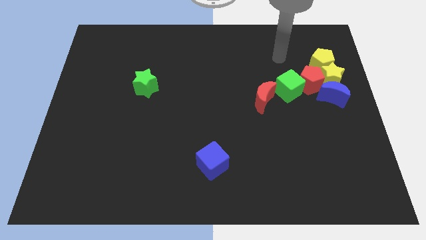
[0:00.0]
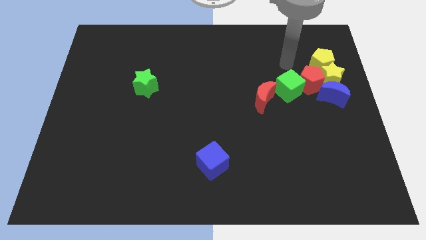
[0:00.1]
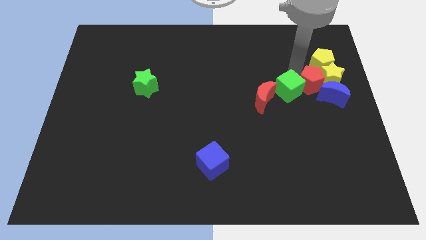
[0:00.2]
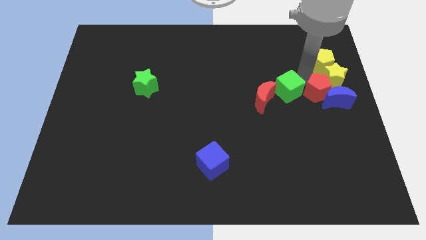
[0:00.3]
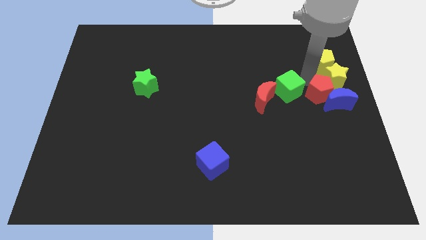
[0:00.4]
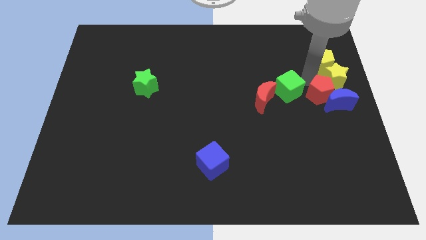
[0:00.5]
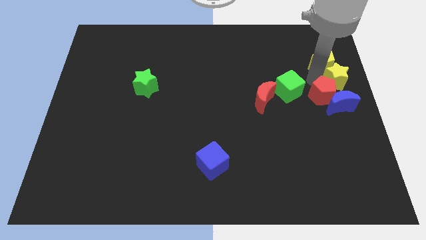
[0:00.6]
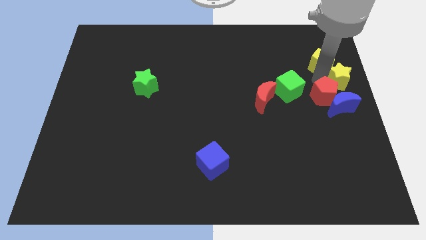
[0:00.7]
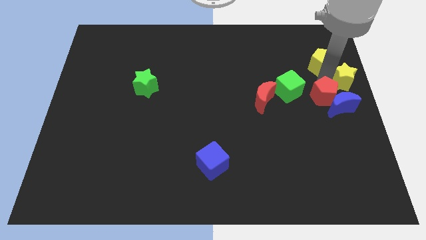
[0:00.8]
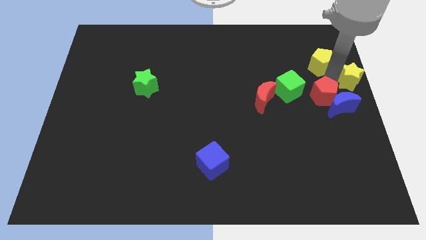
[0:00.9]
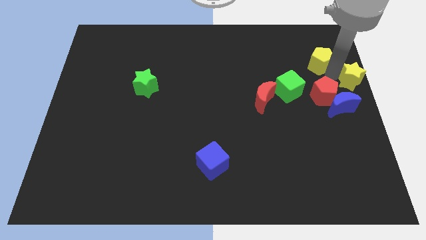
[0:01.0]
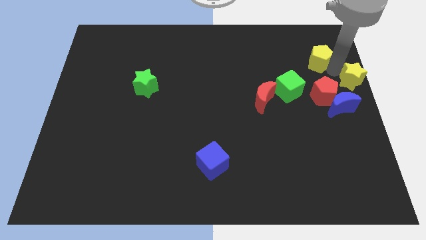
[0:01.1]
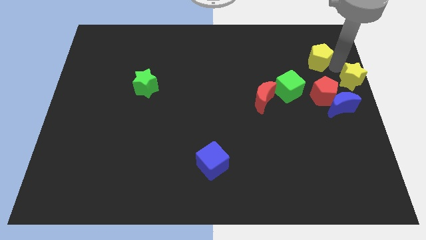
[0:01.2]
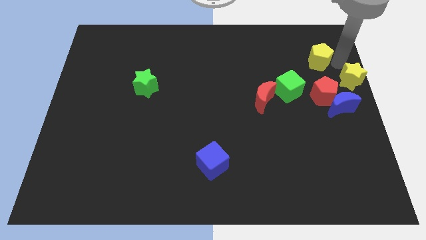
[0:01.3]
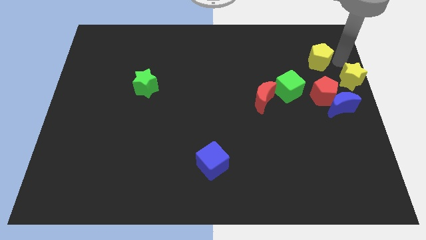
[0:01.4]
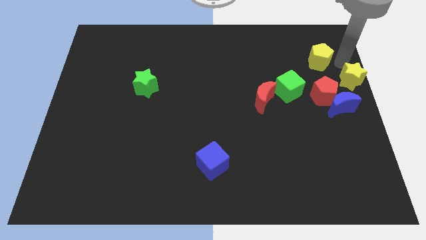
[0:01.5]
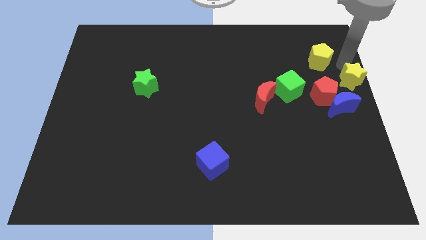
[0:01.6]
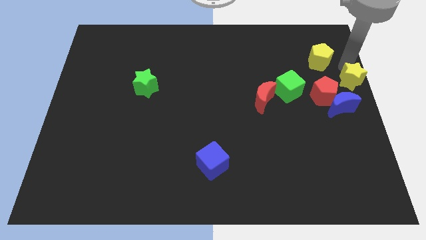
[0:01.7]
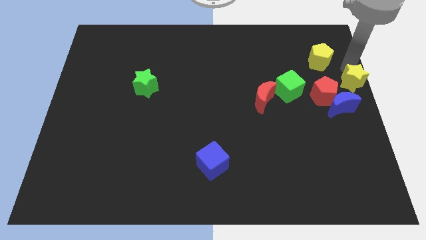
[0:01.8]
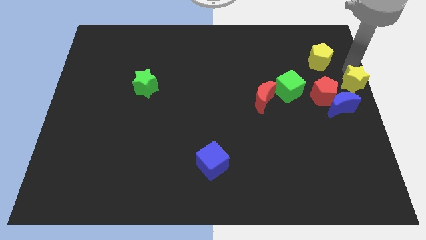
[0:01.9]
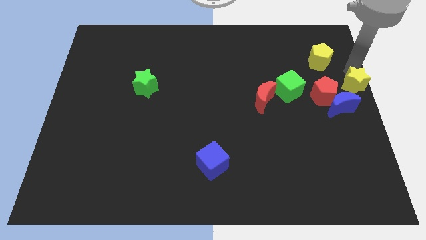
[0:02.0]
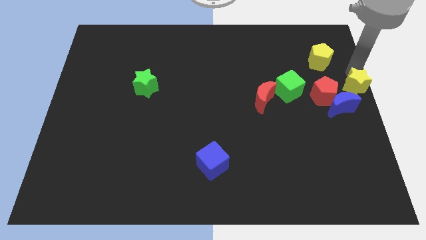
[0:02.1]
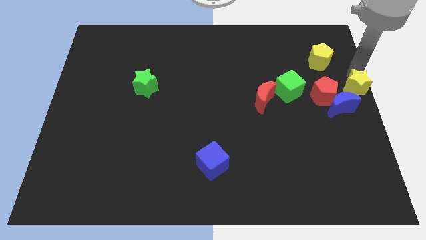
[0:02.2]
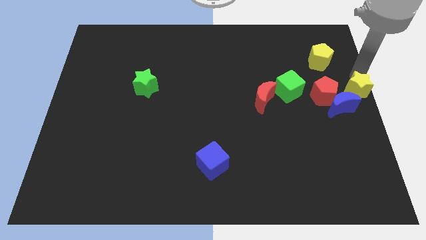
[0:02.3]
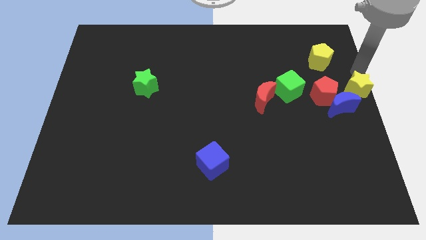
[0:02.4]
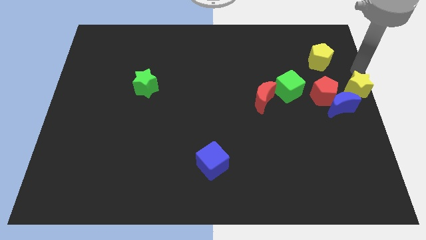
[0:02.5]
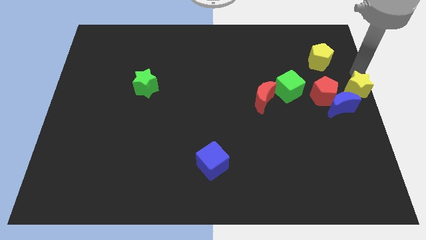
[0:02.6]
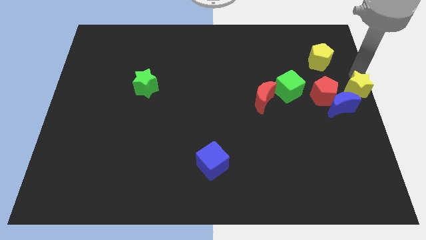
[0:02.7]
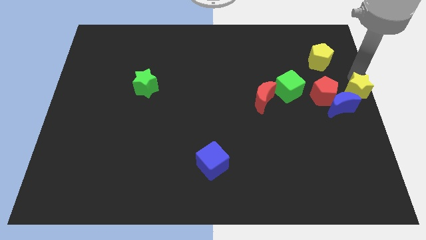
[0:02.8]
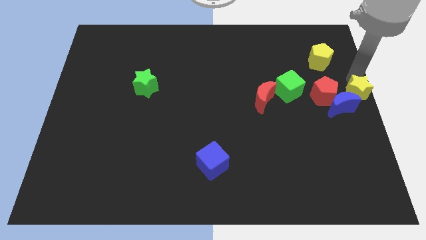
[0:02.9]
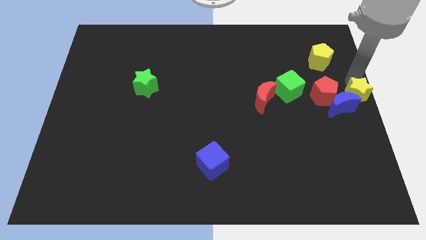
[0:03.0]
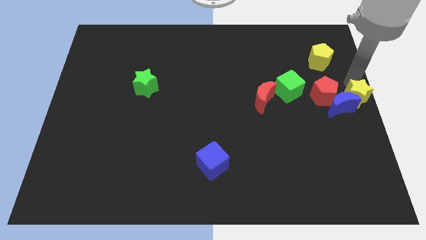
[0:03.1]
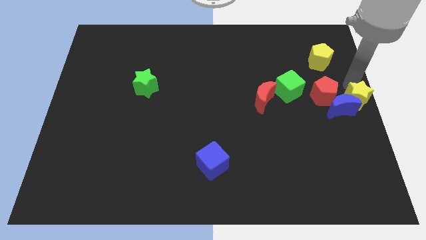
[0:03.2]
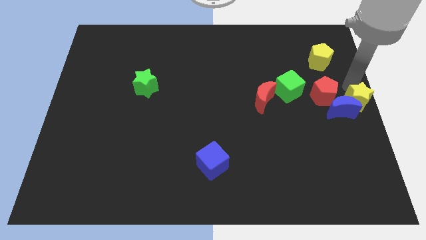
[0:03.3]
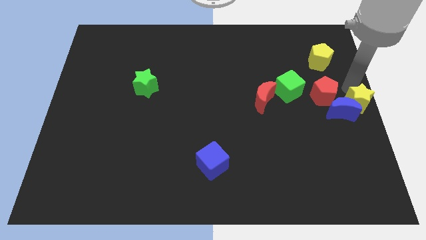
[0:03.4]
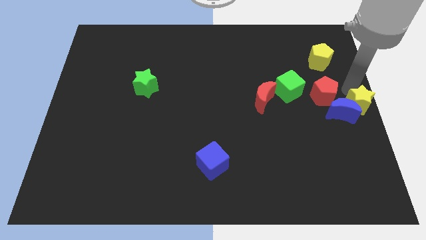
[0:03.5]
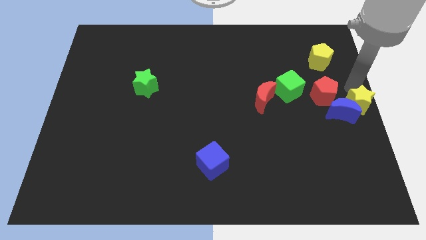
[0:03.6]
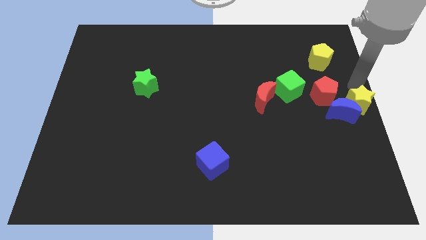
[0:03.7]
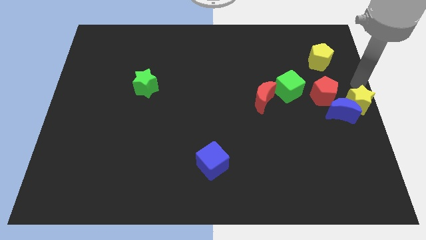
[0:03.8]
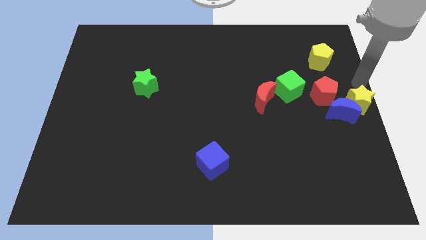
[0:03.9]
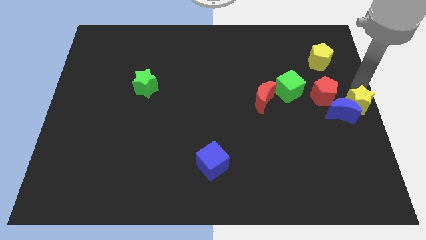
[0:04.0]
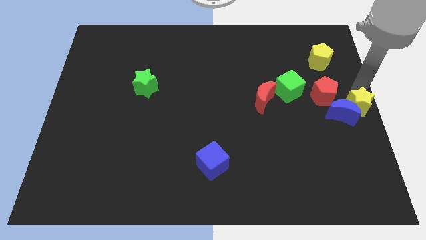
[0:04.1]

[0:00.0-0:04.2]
slide the yellow star down a little bit

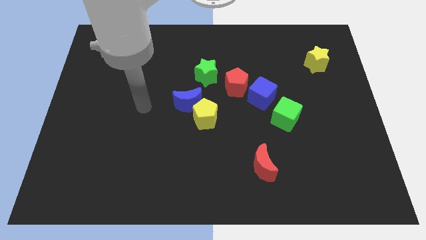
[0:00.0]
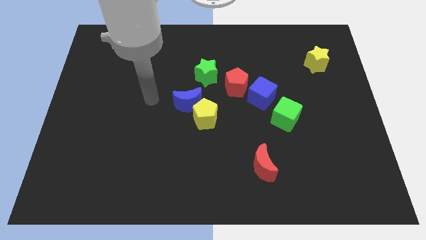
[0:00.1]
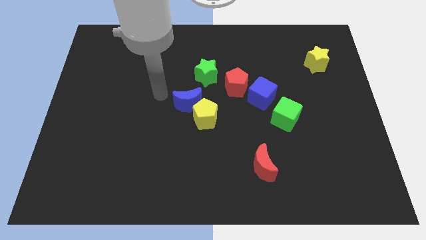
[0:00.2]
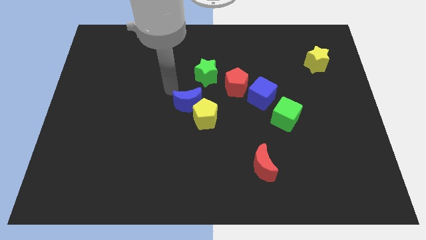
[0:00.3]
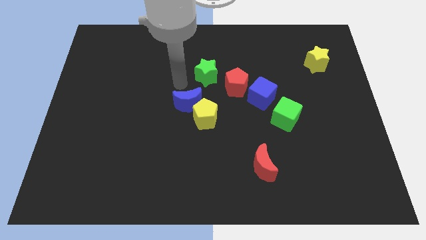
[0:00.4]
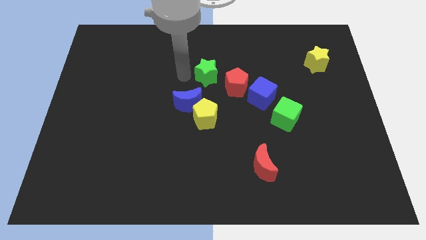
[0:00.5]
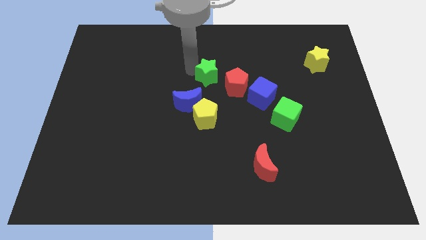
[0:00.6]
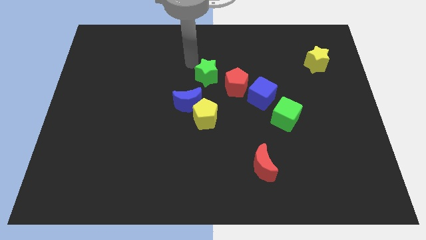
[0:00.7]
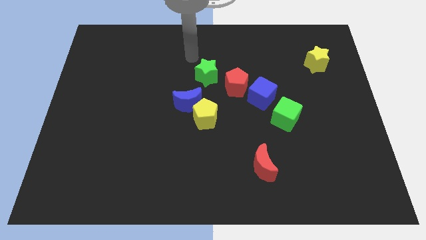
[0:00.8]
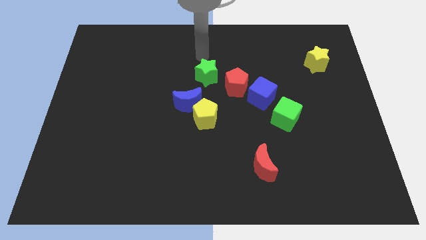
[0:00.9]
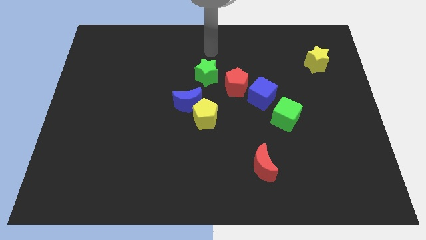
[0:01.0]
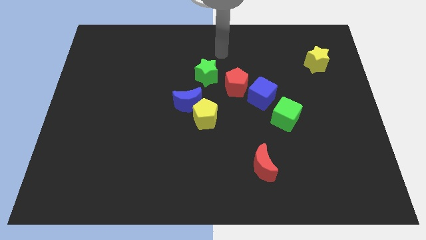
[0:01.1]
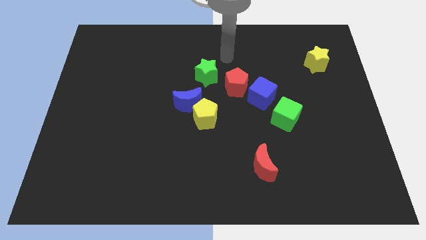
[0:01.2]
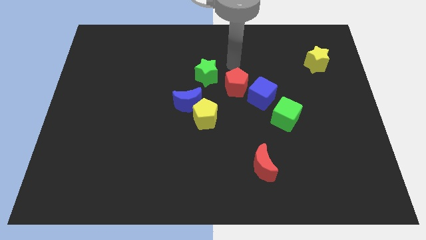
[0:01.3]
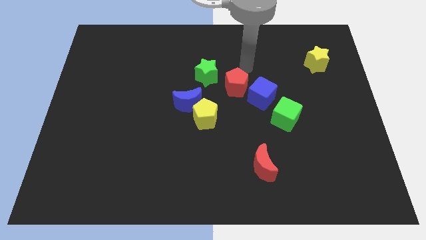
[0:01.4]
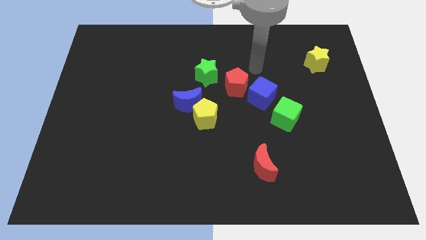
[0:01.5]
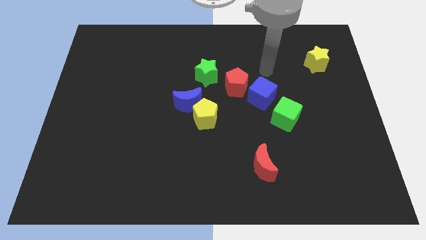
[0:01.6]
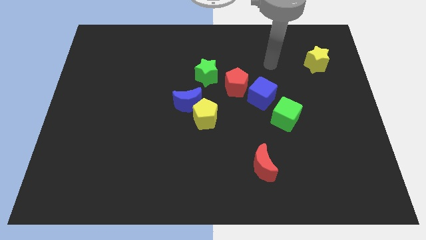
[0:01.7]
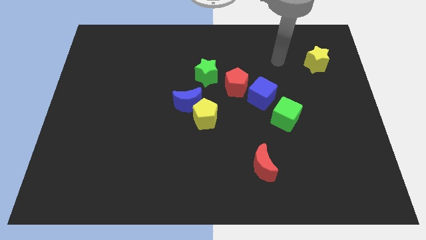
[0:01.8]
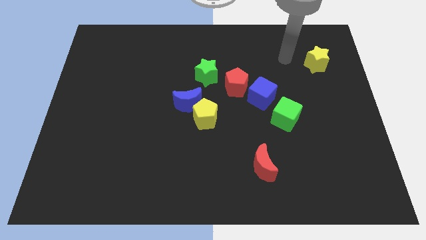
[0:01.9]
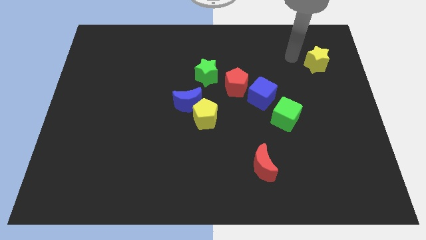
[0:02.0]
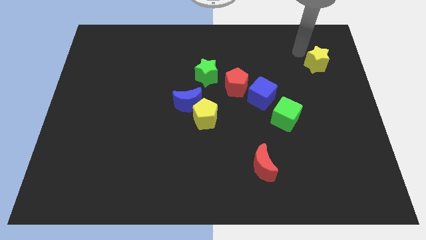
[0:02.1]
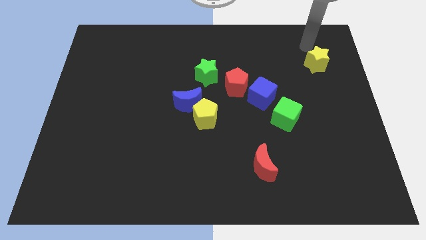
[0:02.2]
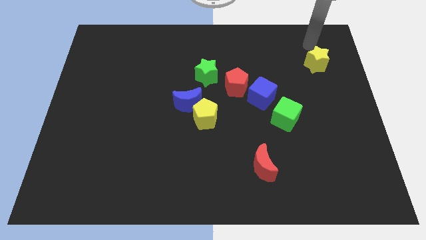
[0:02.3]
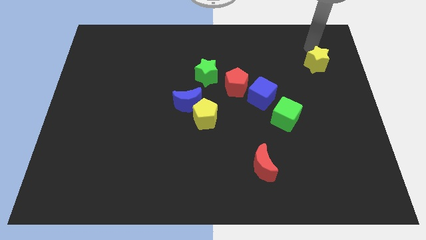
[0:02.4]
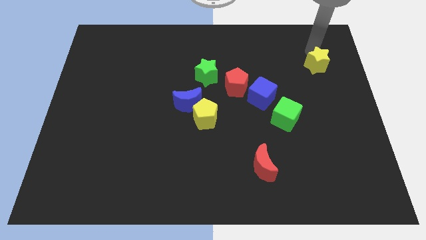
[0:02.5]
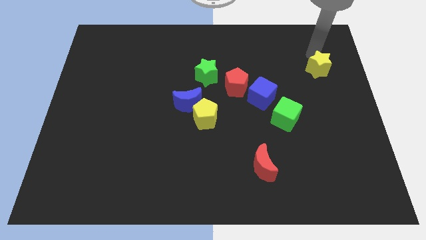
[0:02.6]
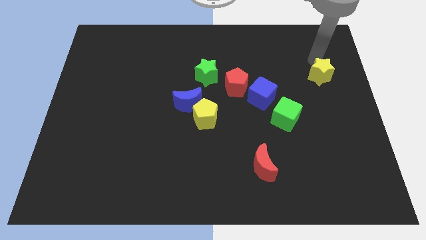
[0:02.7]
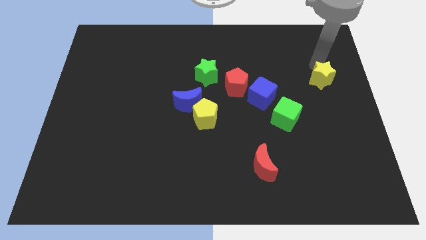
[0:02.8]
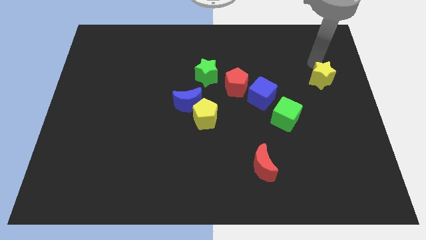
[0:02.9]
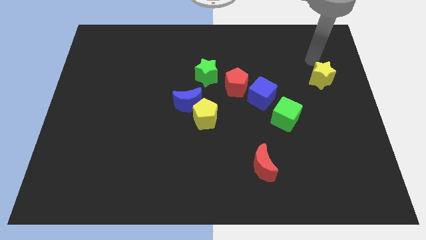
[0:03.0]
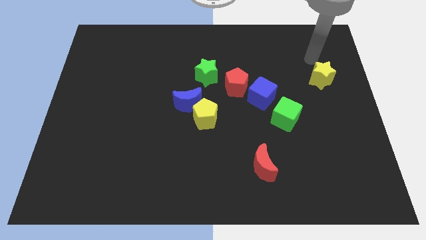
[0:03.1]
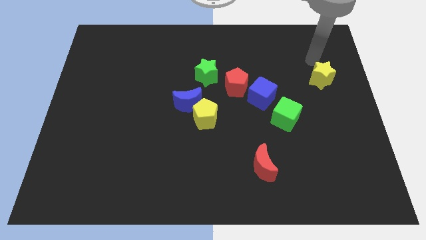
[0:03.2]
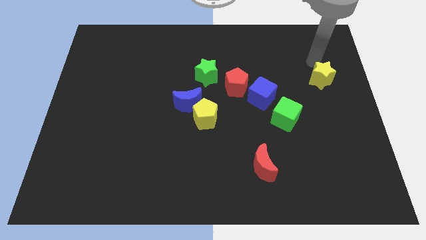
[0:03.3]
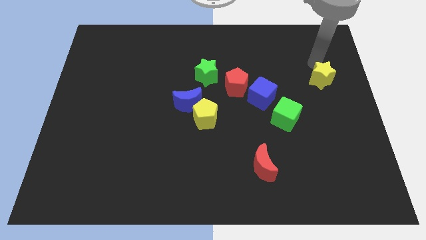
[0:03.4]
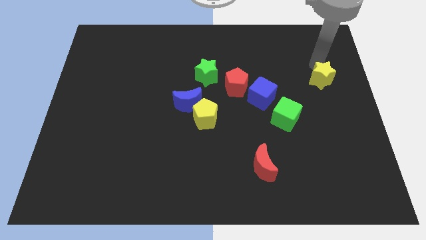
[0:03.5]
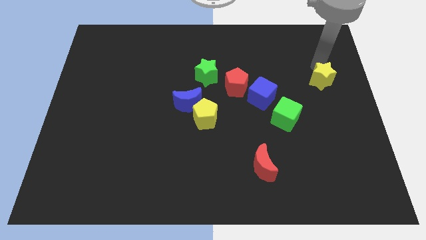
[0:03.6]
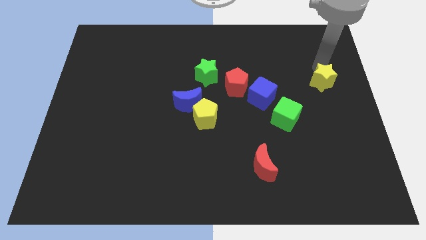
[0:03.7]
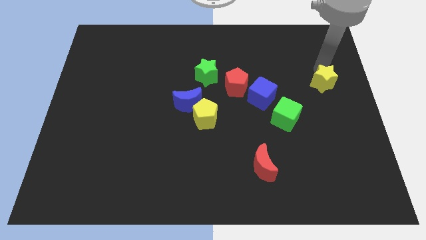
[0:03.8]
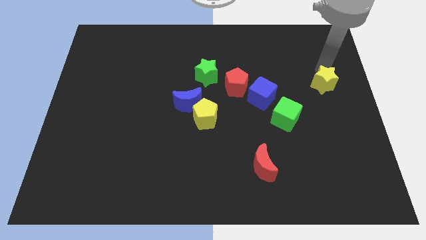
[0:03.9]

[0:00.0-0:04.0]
slide the yellow star down somewhat
